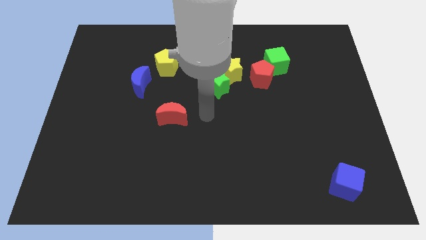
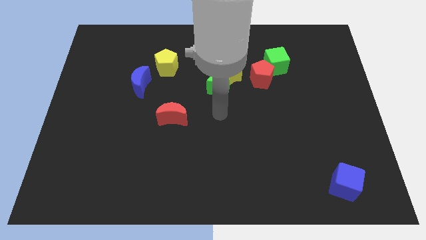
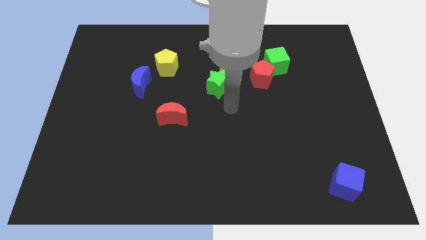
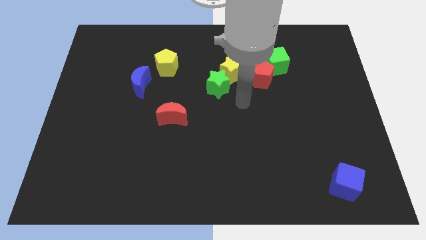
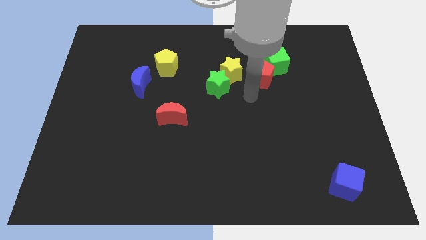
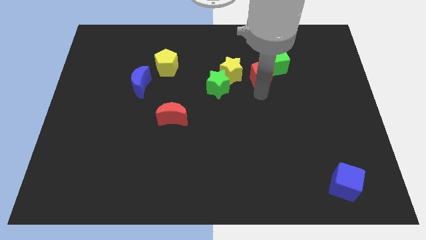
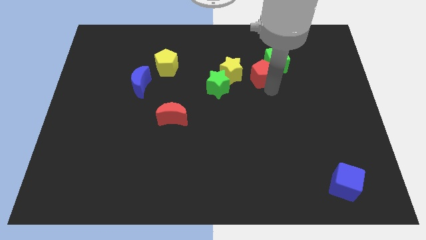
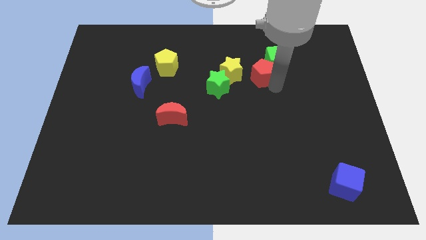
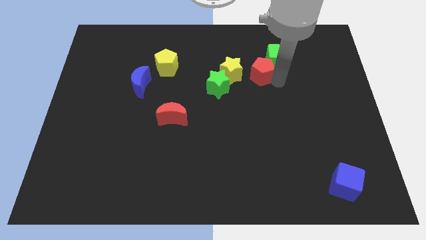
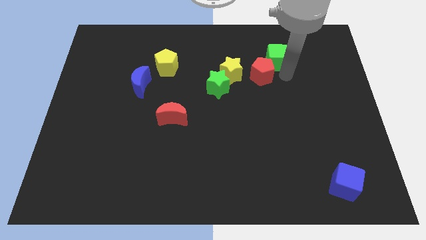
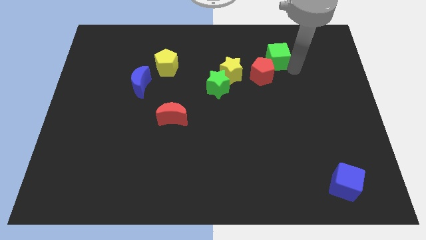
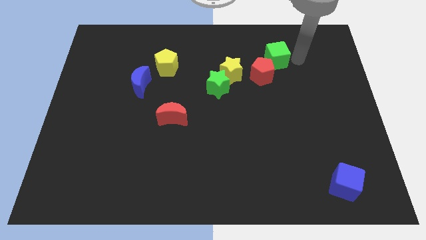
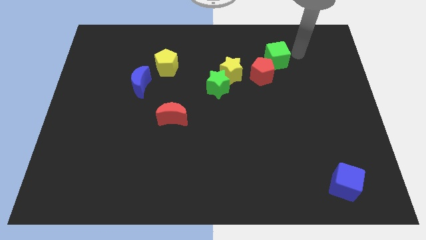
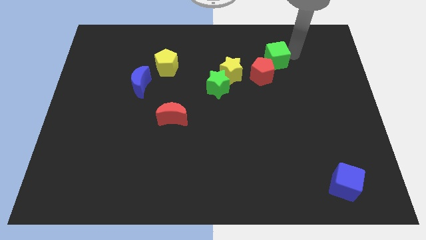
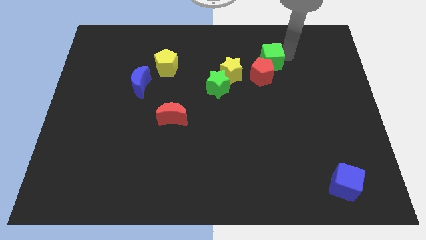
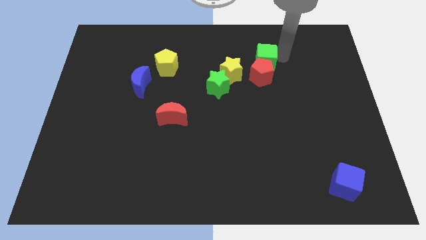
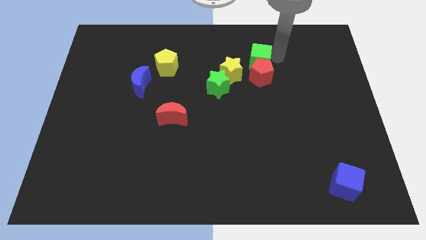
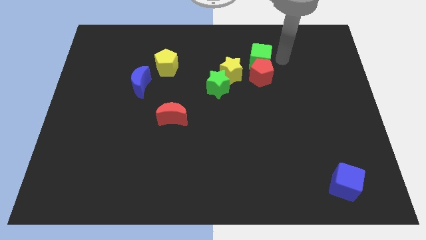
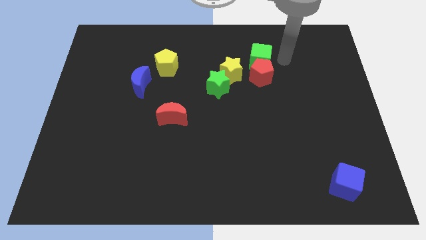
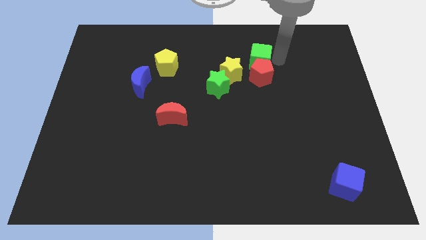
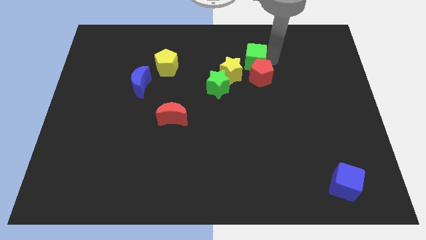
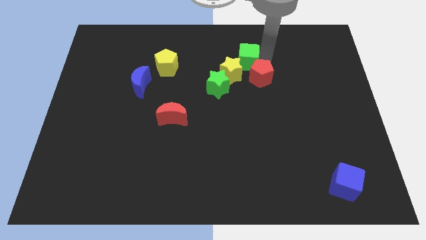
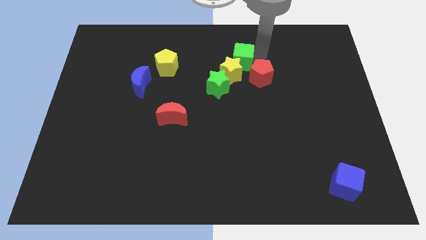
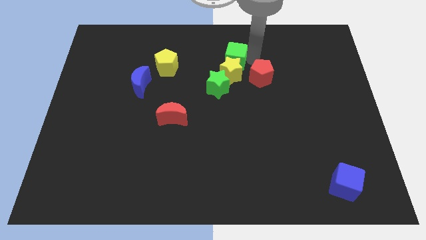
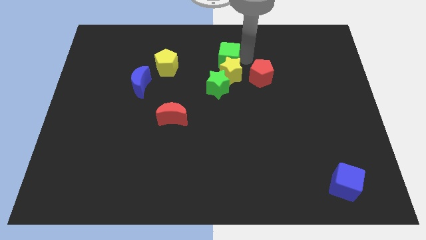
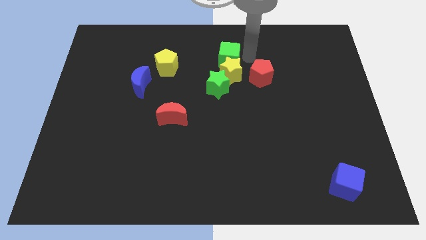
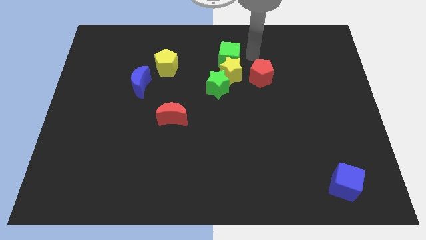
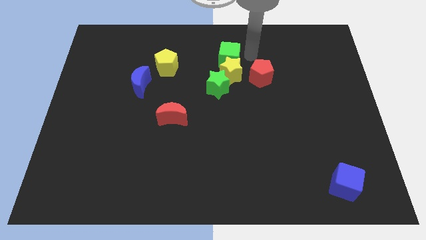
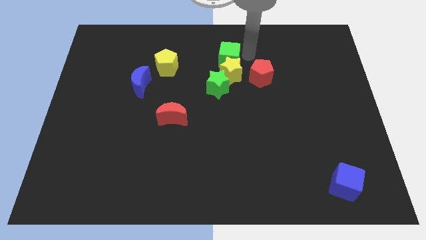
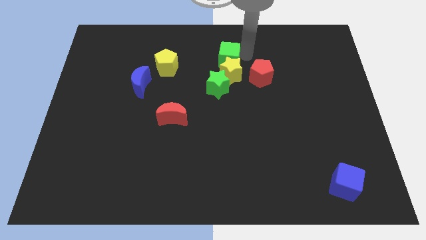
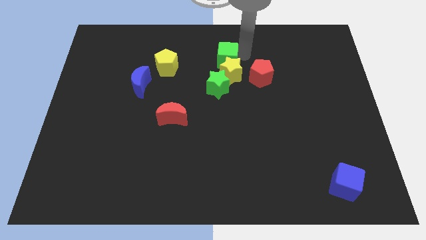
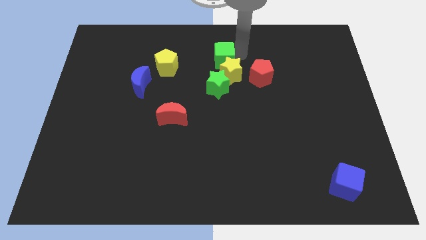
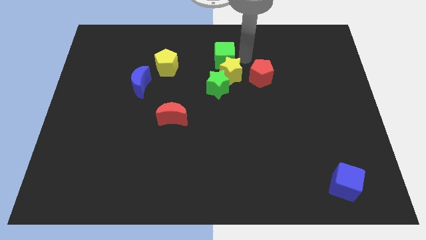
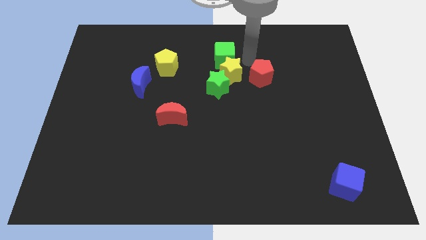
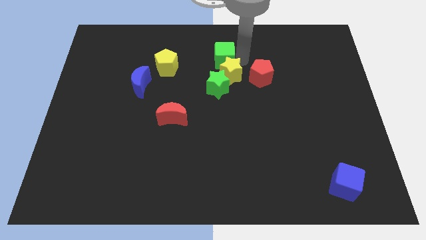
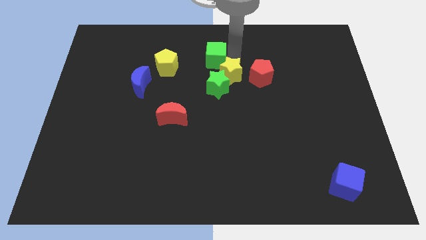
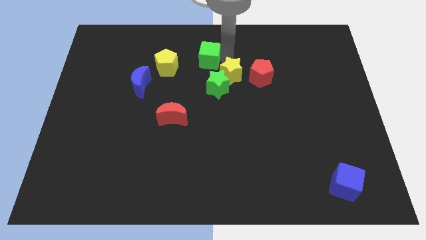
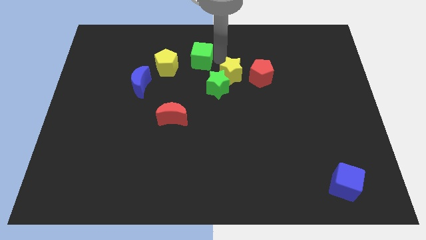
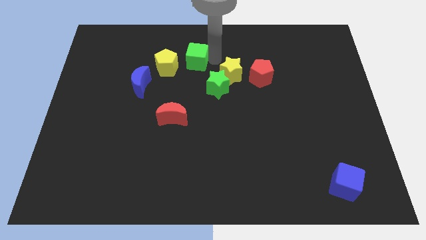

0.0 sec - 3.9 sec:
push the green cube to the left

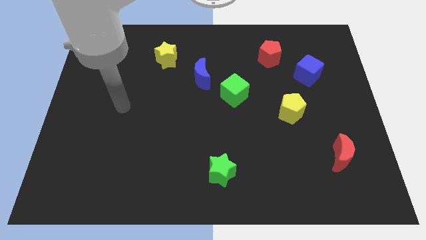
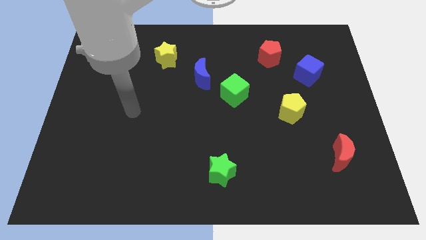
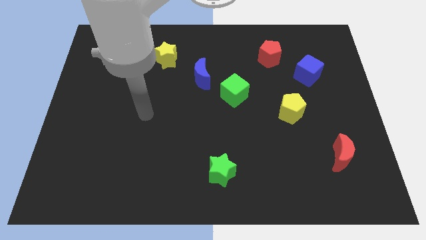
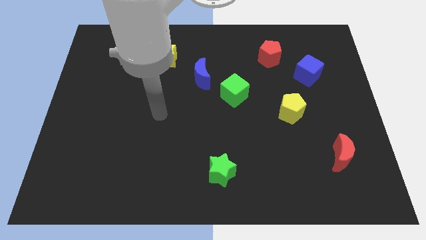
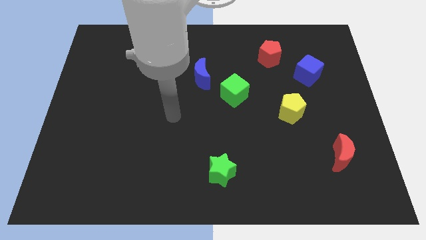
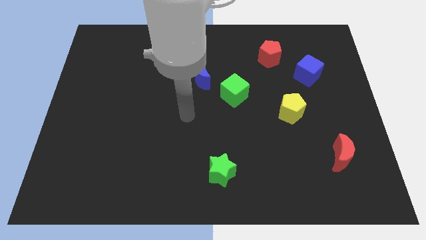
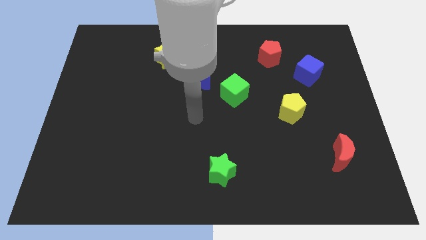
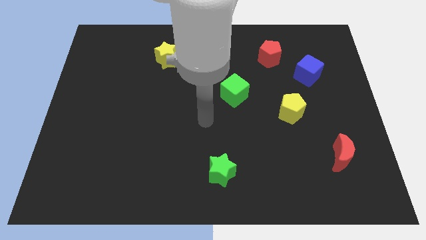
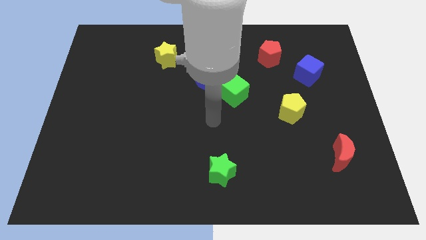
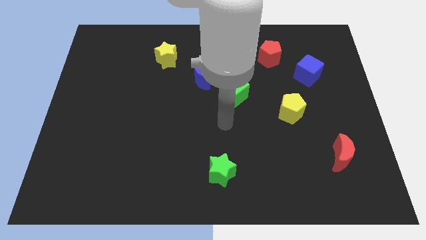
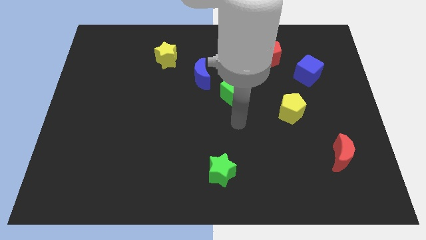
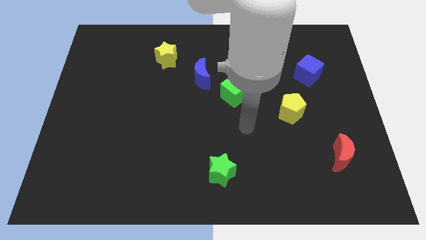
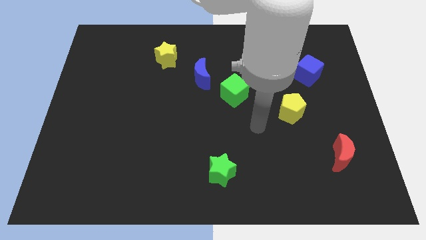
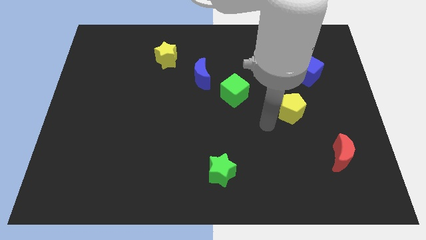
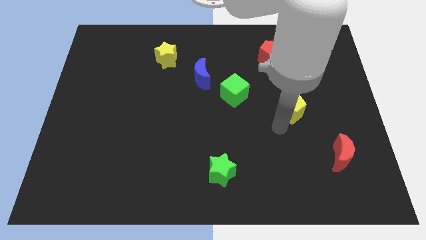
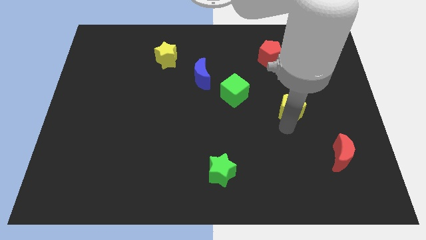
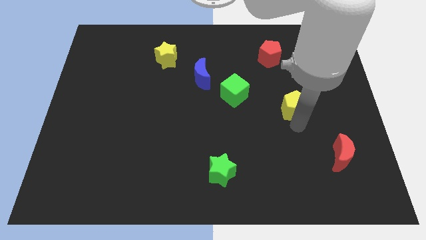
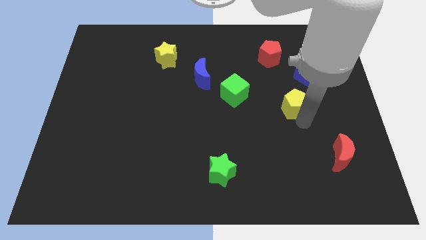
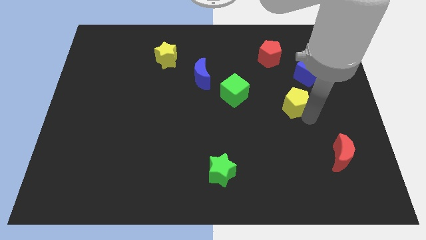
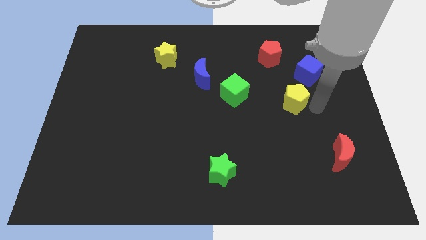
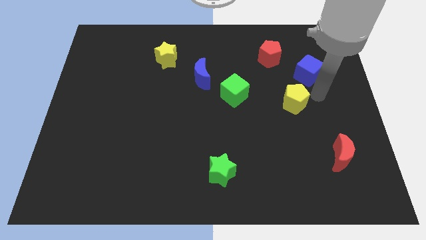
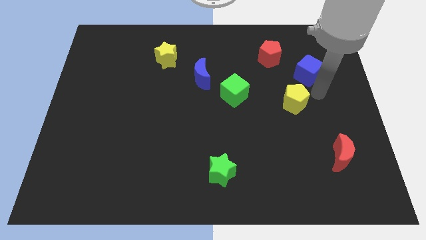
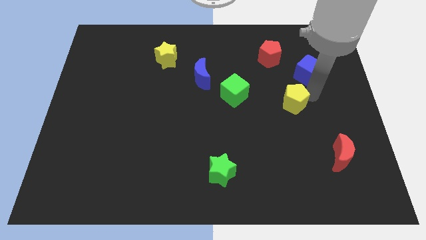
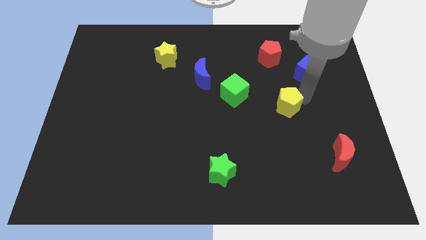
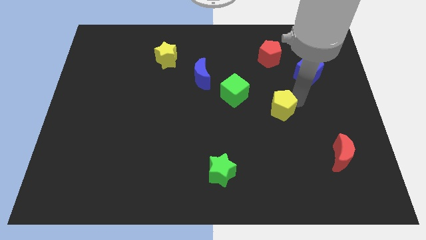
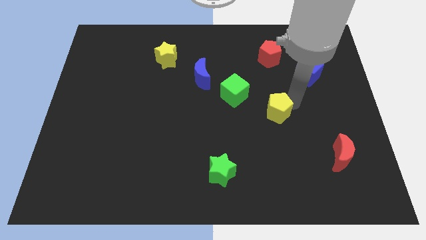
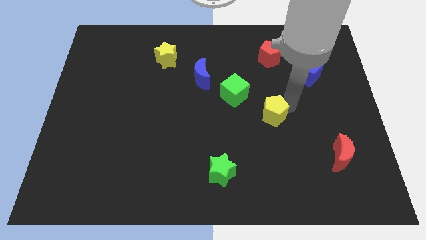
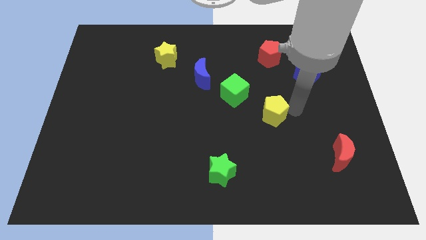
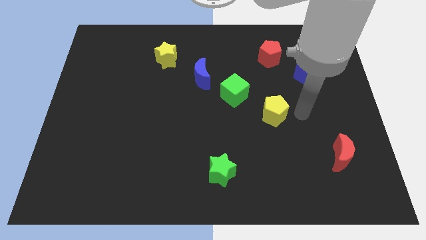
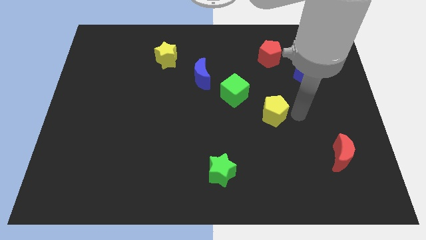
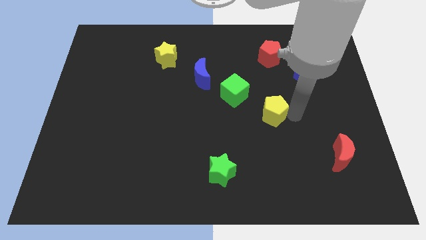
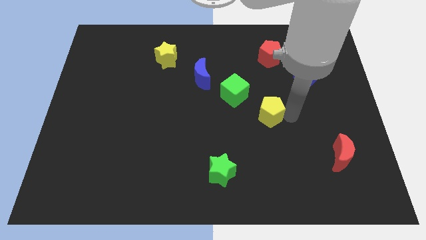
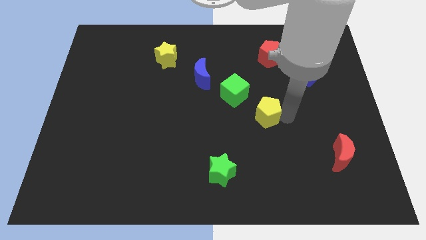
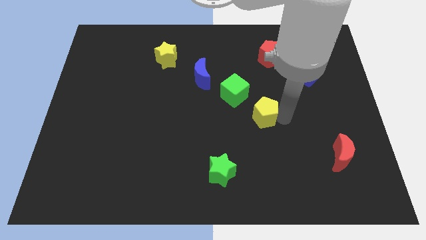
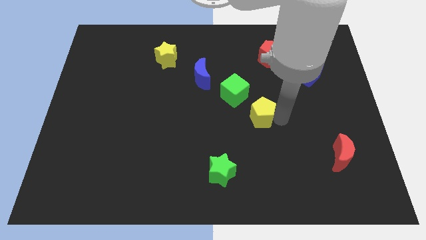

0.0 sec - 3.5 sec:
slightly slide the yellow pentagon left

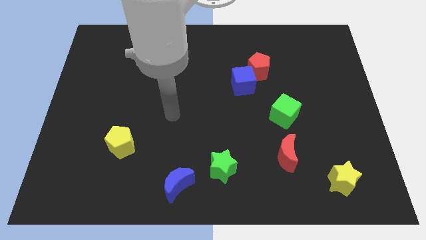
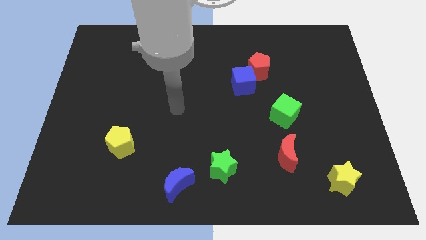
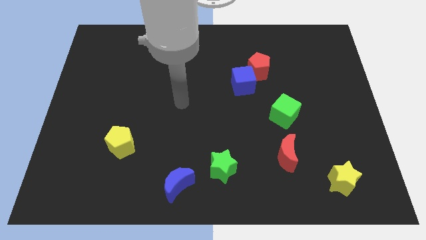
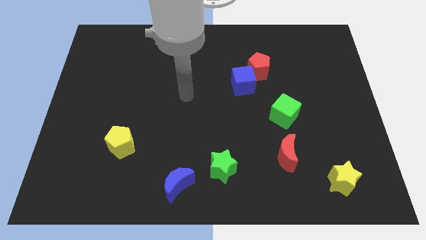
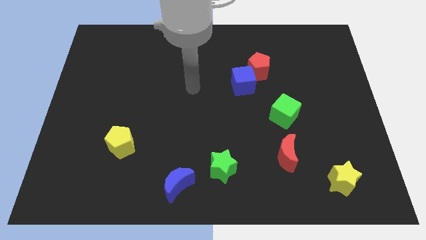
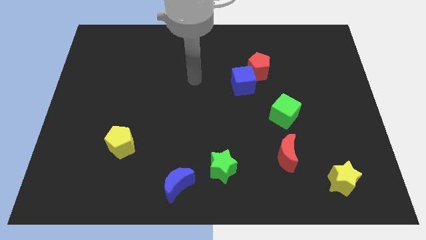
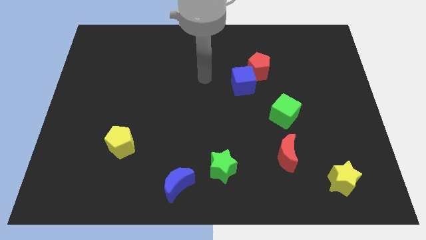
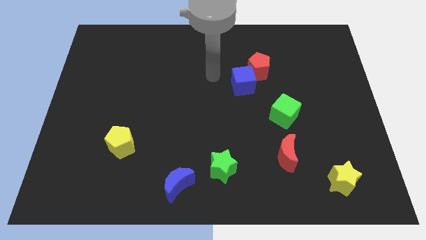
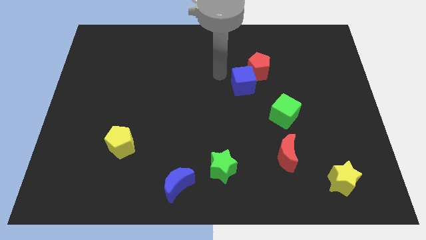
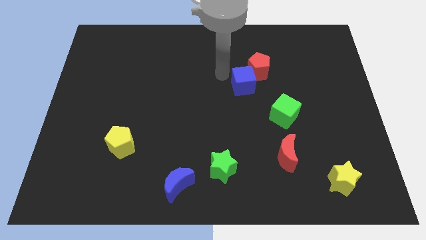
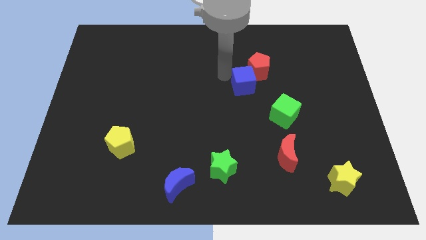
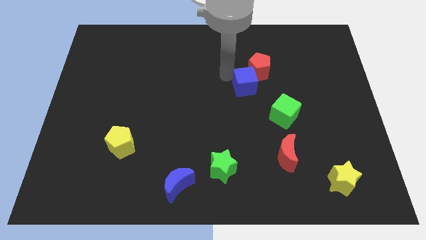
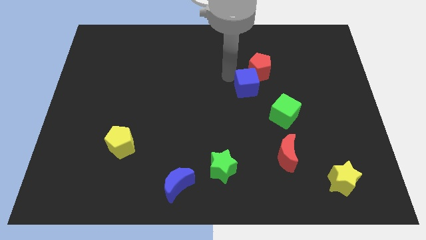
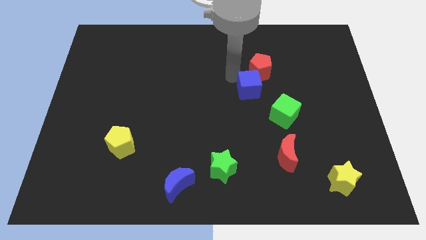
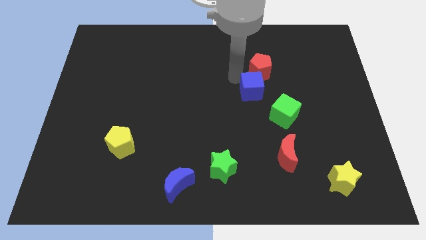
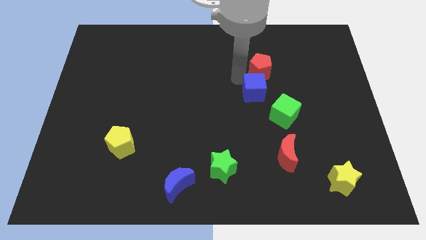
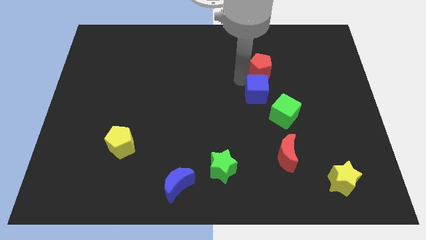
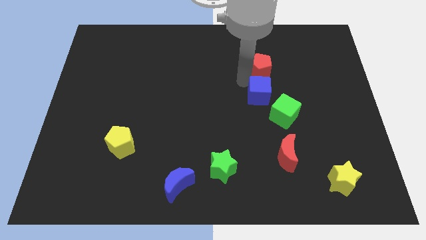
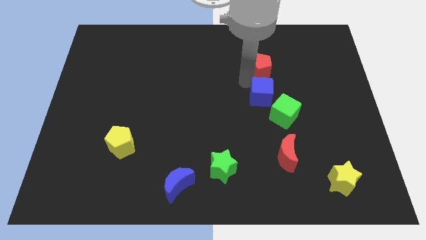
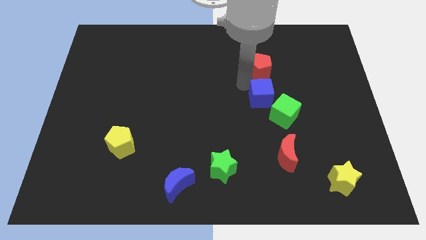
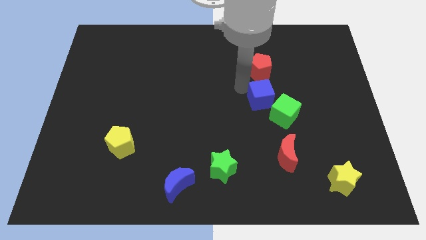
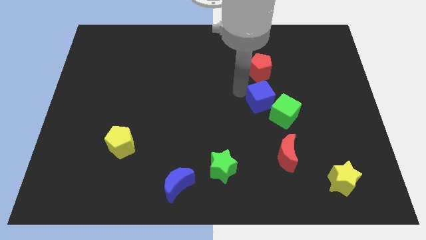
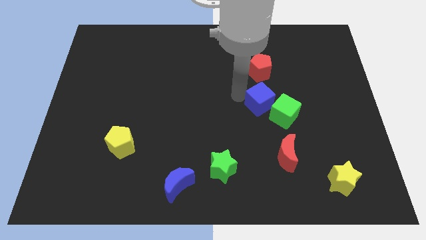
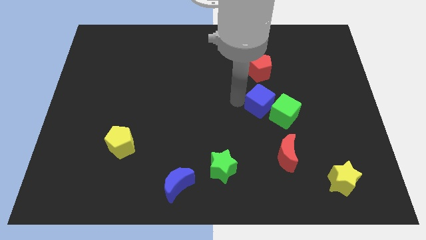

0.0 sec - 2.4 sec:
move the blue cube downwards and right diagonally a little
